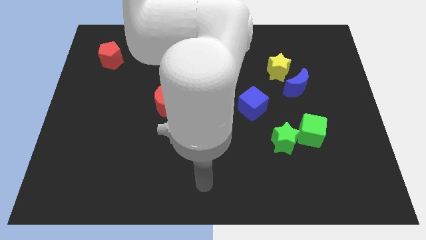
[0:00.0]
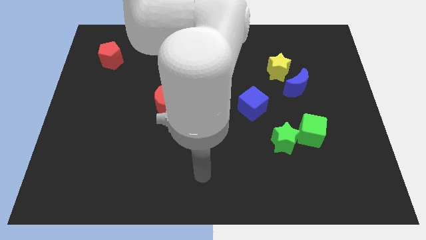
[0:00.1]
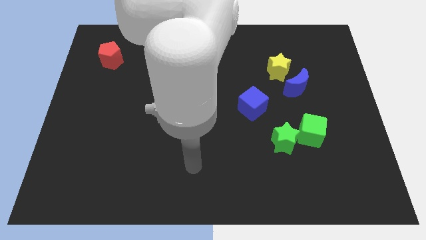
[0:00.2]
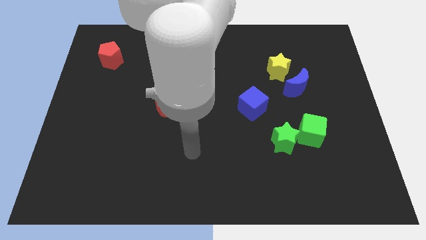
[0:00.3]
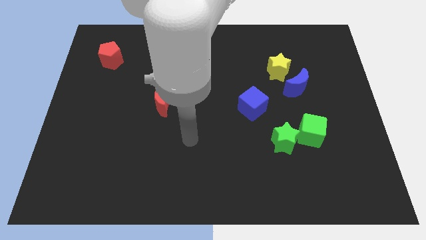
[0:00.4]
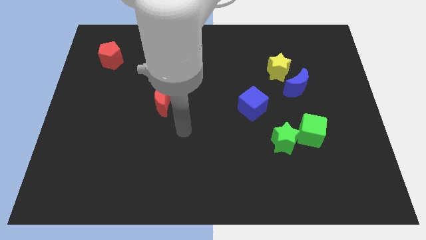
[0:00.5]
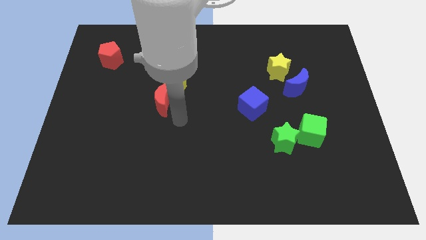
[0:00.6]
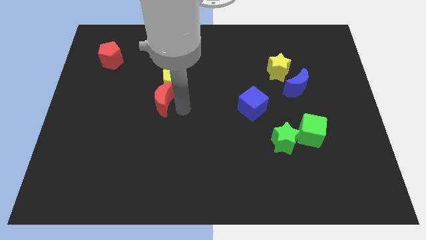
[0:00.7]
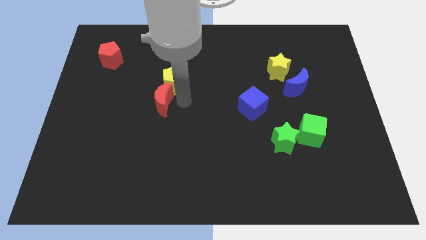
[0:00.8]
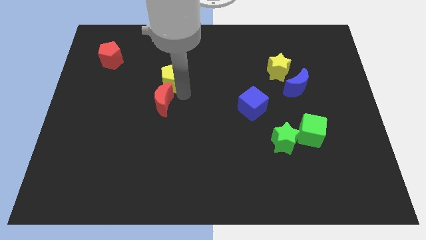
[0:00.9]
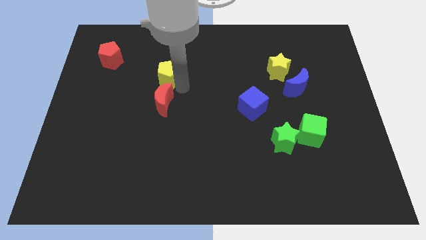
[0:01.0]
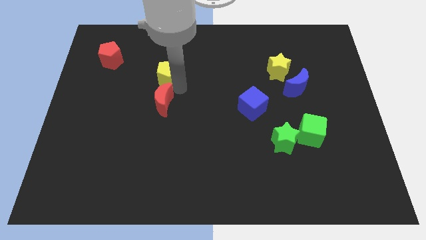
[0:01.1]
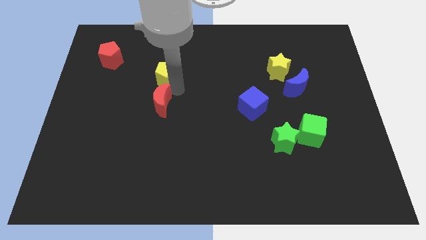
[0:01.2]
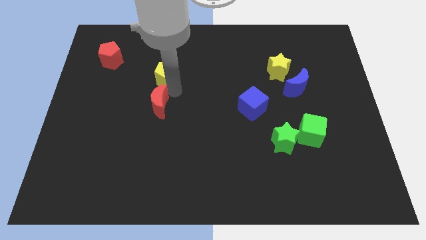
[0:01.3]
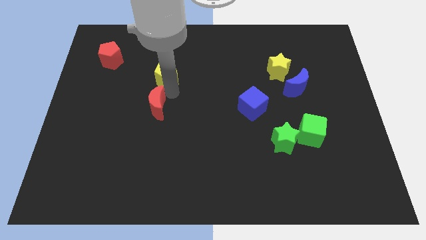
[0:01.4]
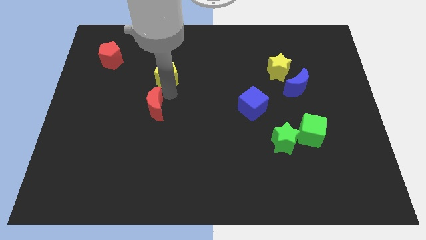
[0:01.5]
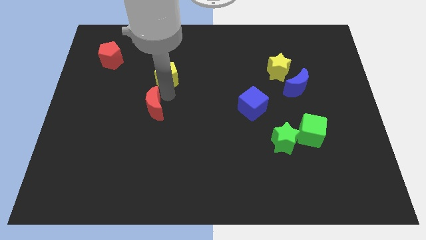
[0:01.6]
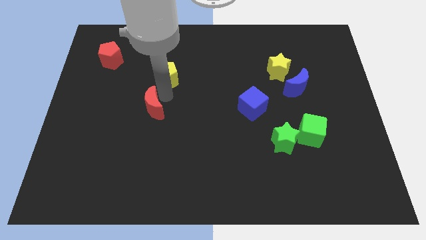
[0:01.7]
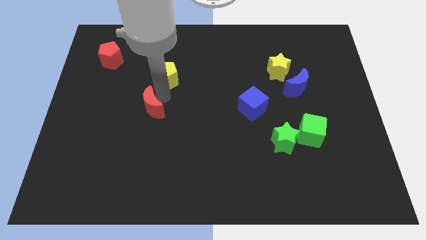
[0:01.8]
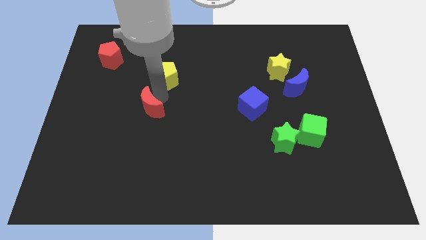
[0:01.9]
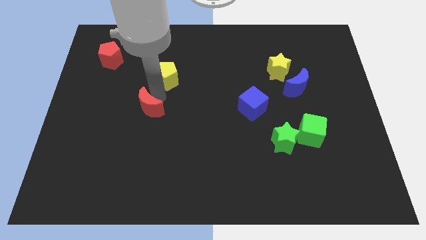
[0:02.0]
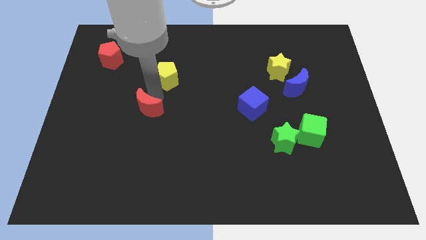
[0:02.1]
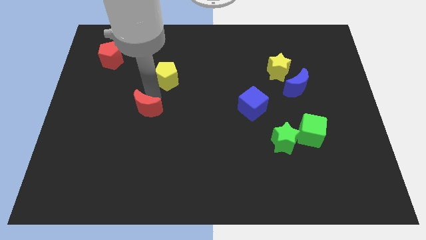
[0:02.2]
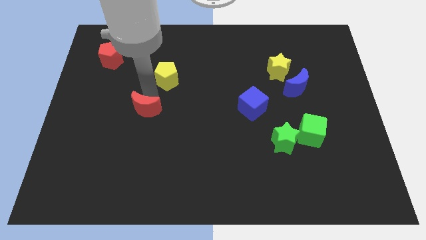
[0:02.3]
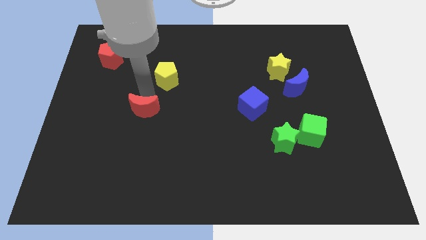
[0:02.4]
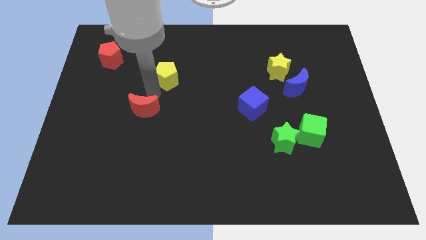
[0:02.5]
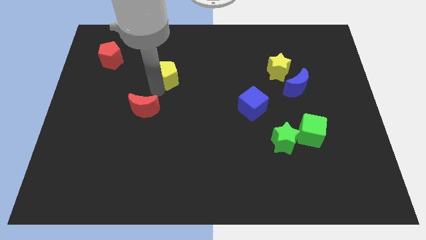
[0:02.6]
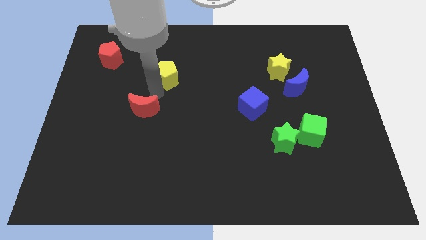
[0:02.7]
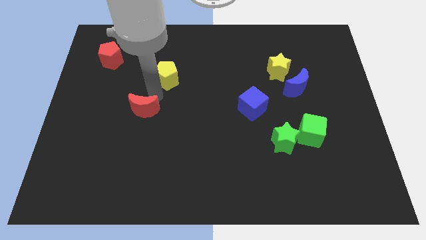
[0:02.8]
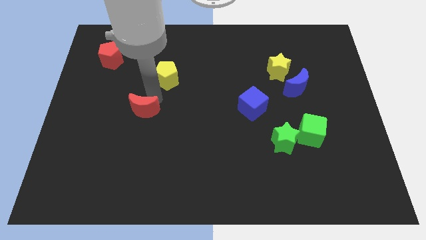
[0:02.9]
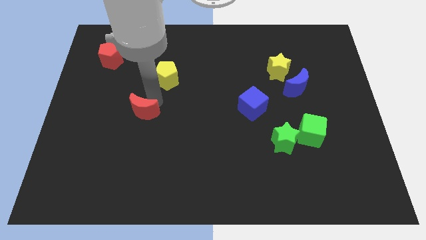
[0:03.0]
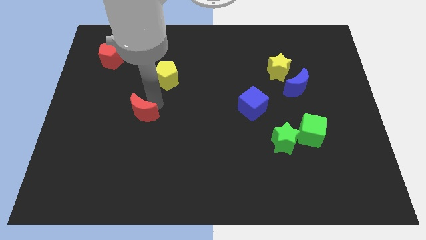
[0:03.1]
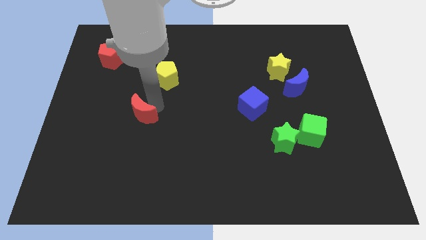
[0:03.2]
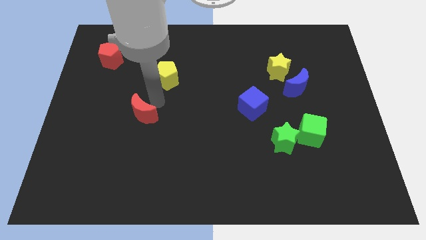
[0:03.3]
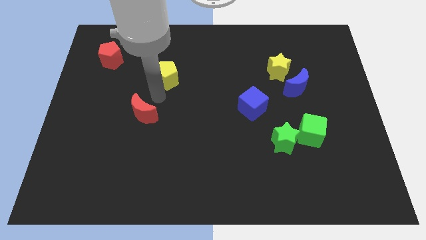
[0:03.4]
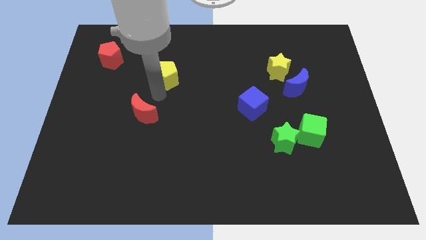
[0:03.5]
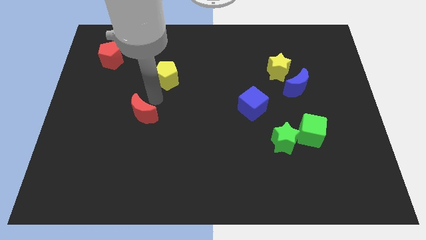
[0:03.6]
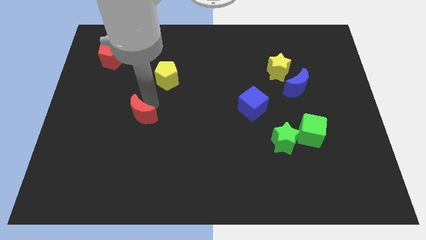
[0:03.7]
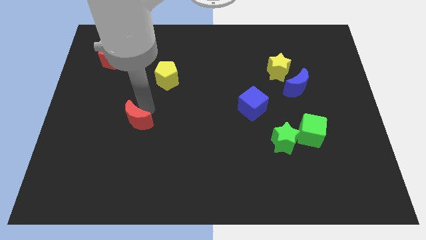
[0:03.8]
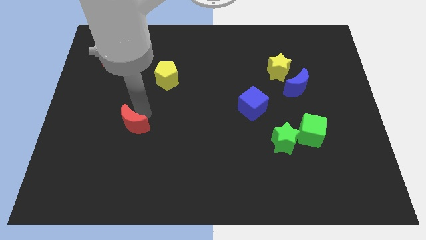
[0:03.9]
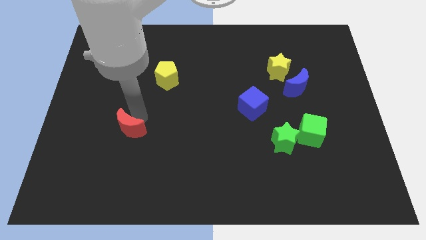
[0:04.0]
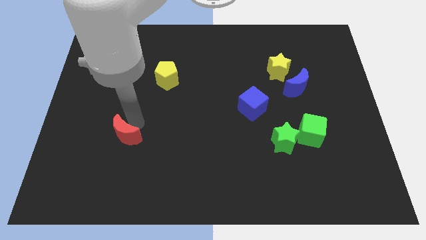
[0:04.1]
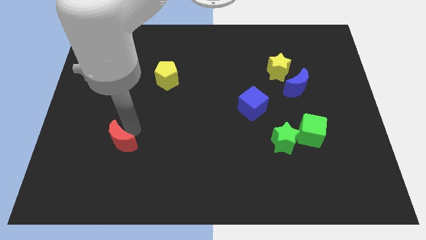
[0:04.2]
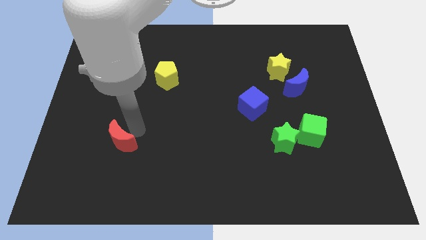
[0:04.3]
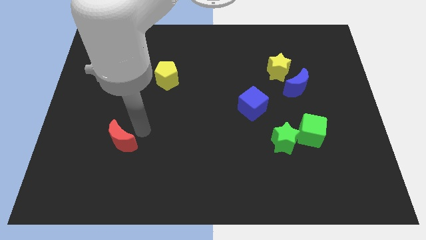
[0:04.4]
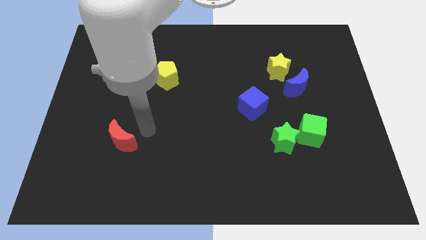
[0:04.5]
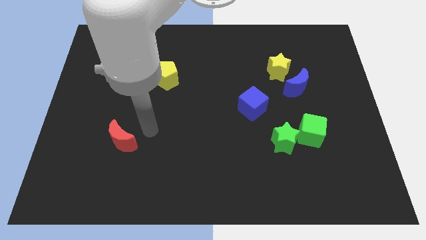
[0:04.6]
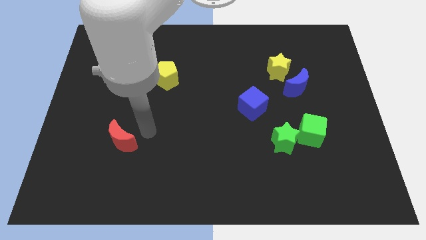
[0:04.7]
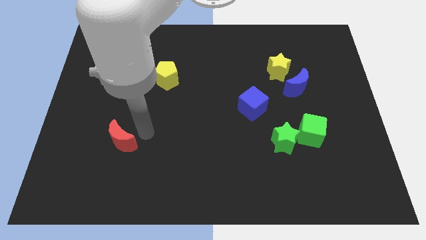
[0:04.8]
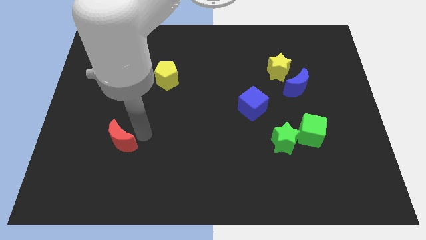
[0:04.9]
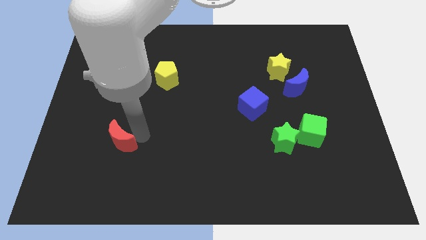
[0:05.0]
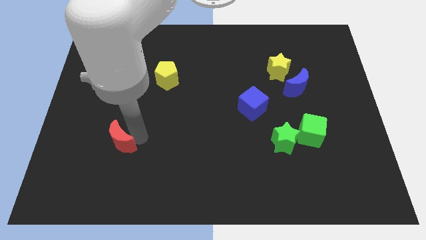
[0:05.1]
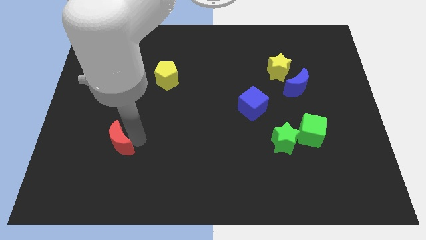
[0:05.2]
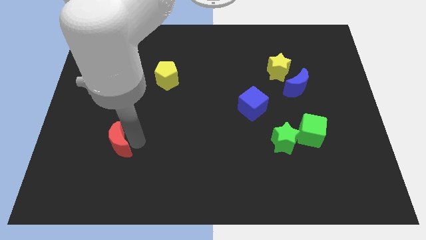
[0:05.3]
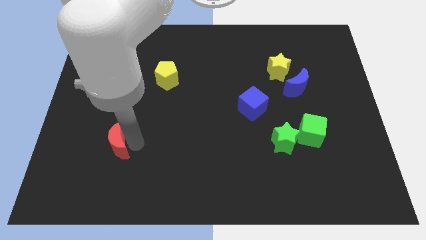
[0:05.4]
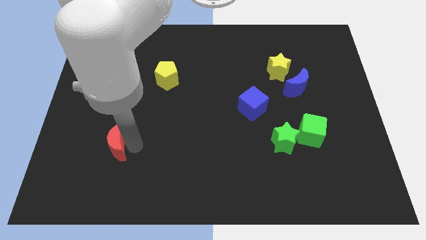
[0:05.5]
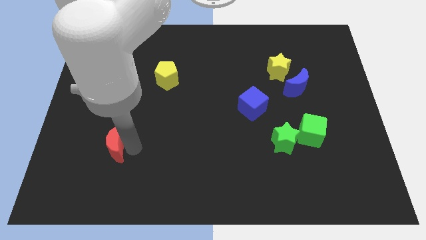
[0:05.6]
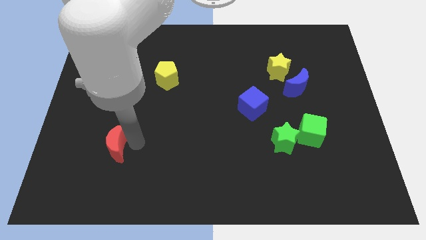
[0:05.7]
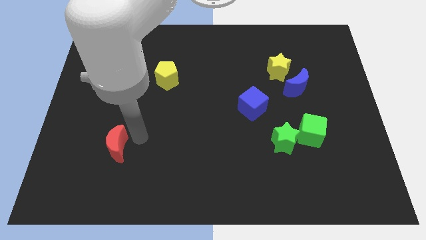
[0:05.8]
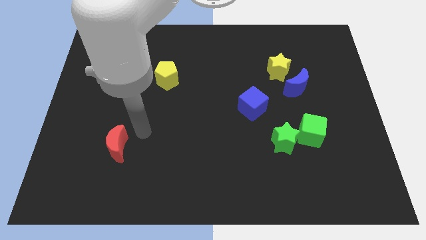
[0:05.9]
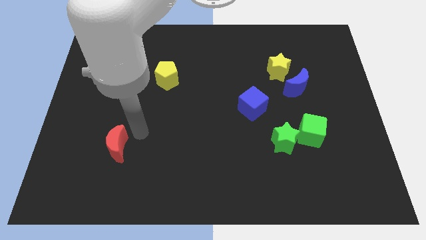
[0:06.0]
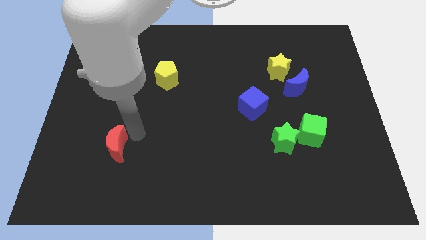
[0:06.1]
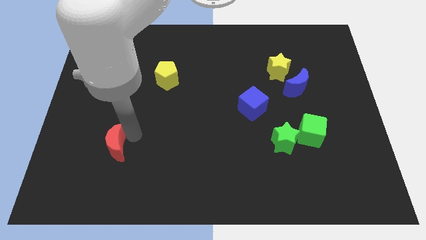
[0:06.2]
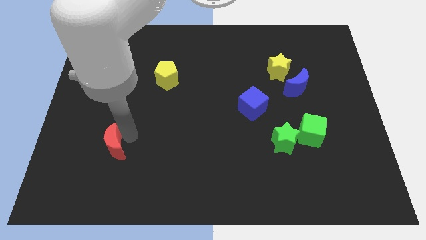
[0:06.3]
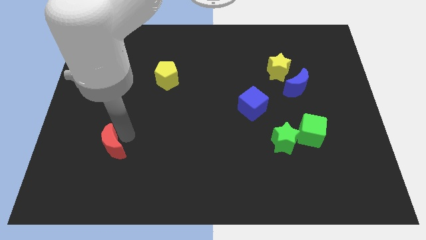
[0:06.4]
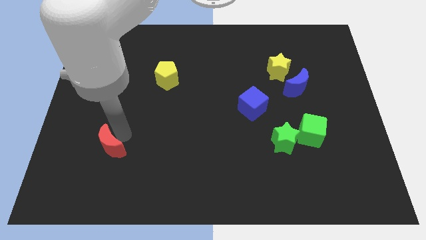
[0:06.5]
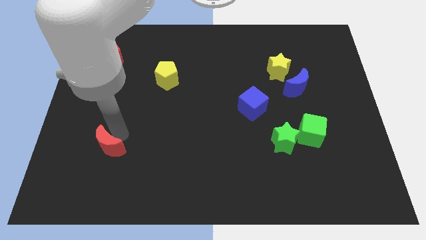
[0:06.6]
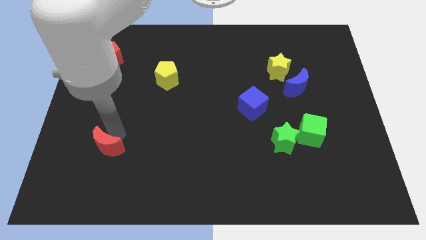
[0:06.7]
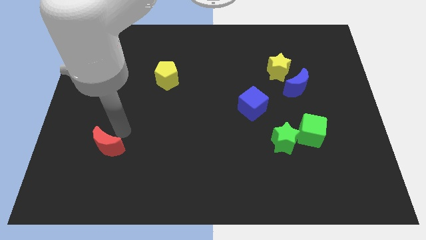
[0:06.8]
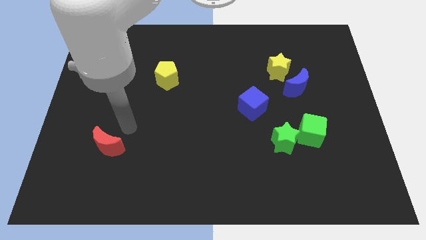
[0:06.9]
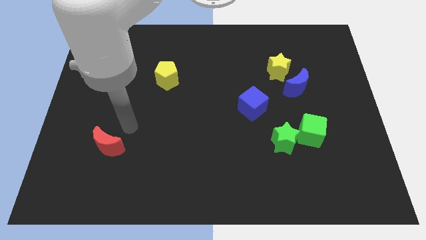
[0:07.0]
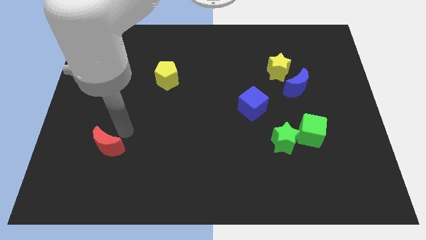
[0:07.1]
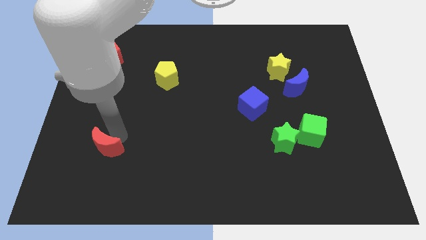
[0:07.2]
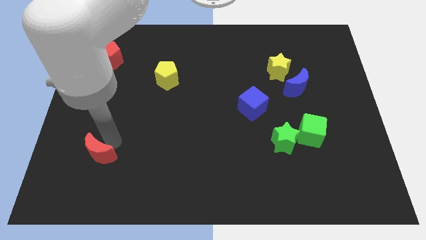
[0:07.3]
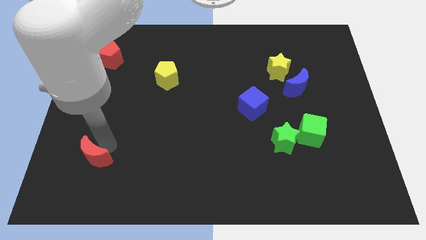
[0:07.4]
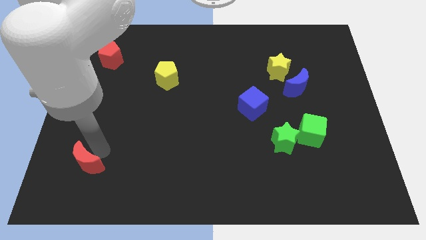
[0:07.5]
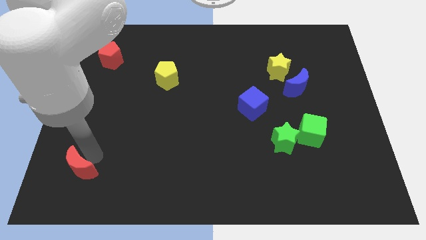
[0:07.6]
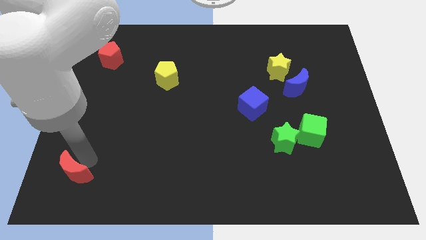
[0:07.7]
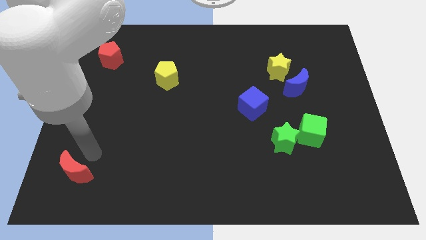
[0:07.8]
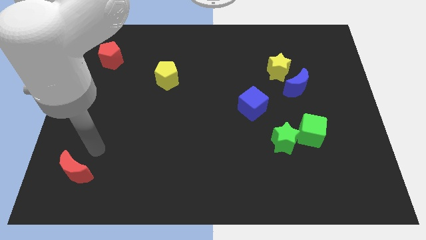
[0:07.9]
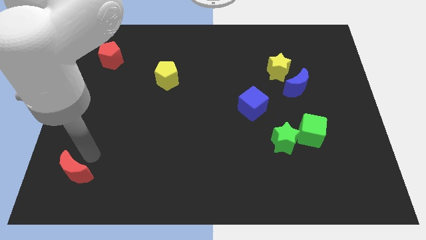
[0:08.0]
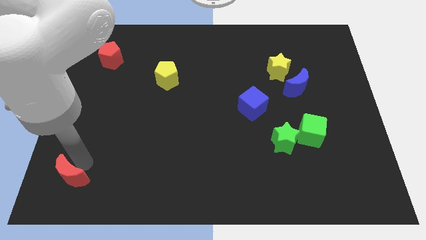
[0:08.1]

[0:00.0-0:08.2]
move the red moon to the bottom left
